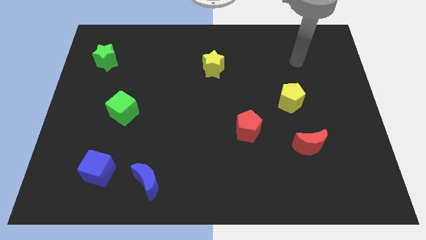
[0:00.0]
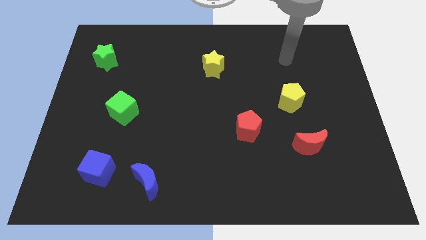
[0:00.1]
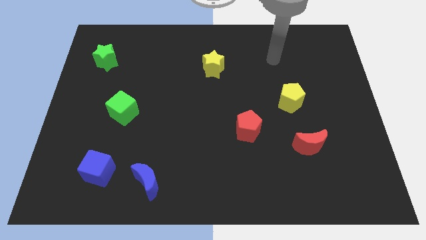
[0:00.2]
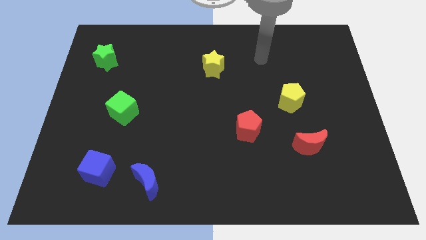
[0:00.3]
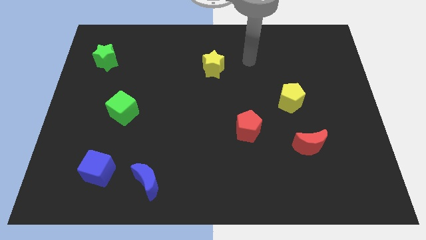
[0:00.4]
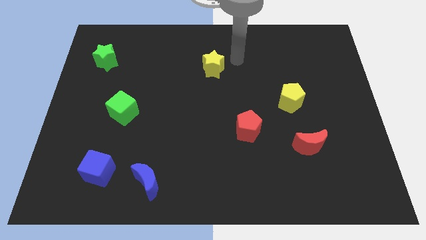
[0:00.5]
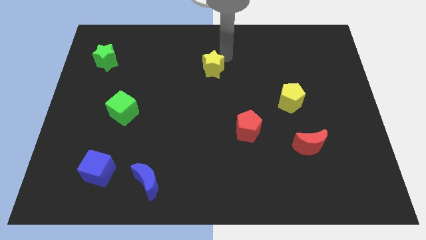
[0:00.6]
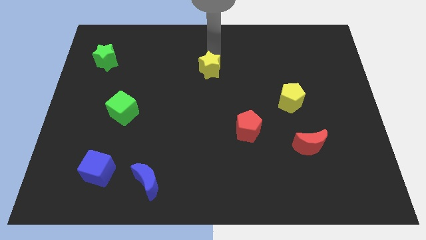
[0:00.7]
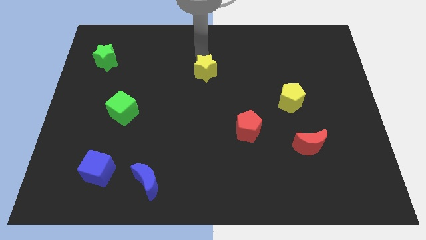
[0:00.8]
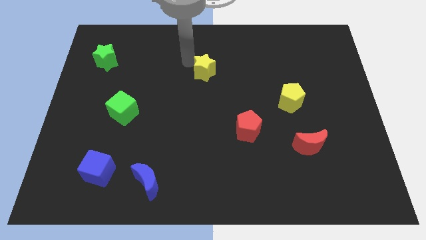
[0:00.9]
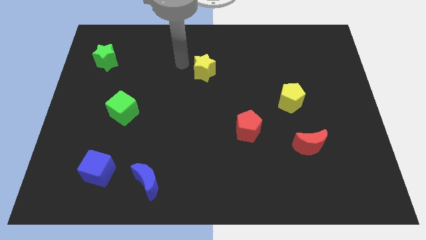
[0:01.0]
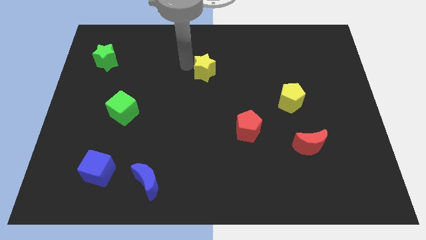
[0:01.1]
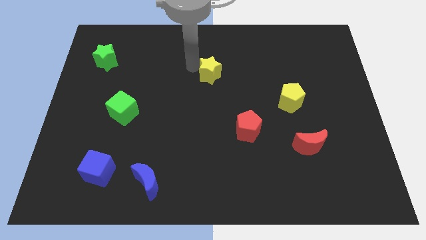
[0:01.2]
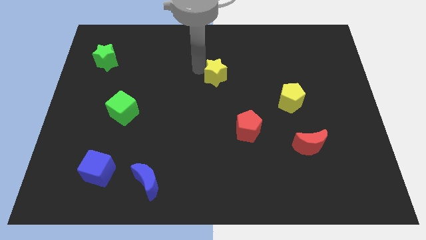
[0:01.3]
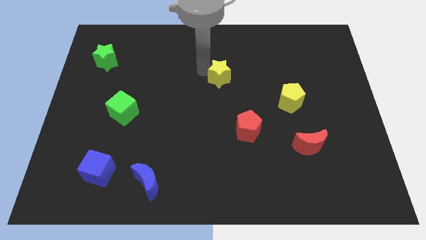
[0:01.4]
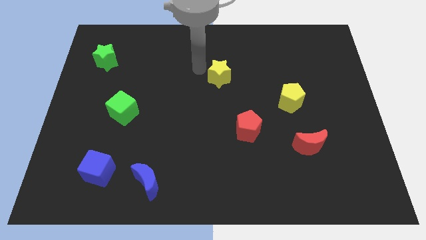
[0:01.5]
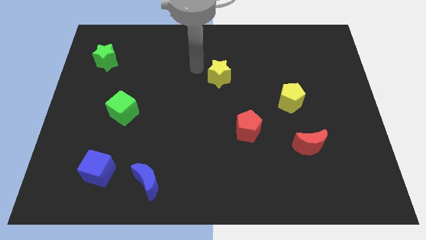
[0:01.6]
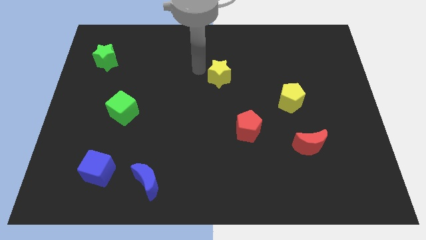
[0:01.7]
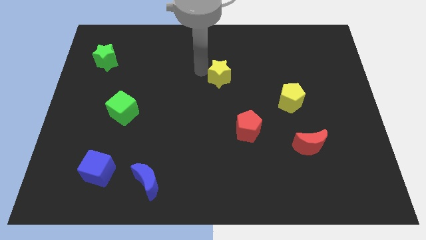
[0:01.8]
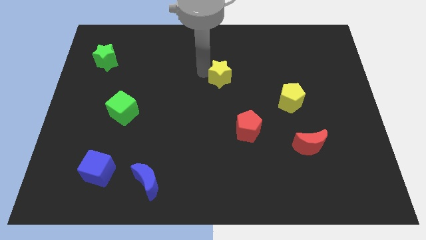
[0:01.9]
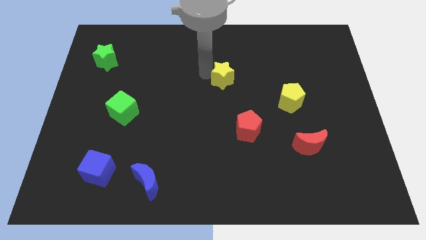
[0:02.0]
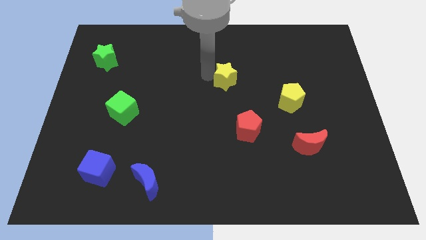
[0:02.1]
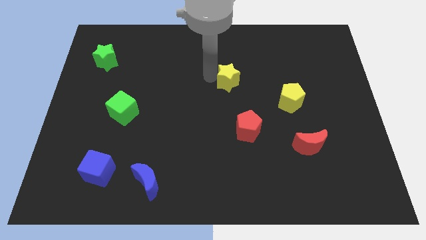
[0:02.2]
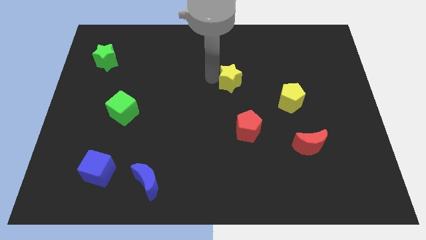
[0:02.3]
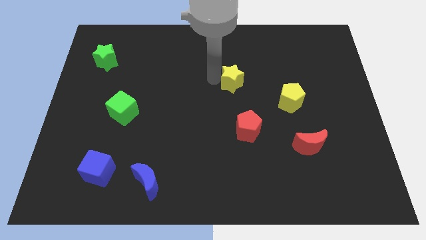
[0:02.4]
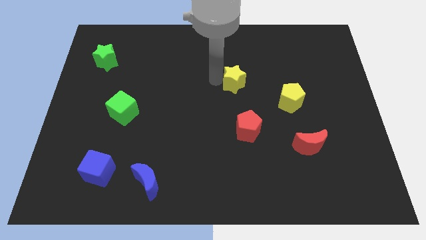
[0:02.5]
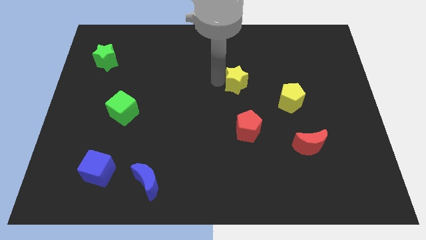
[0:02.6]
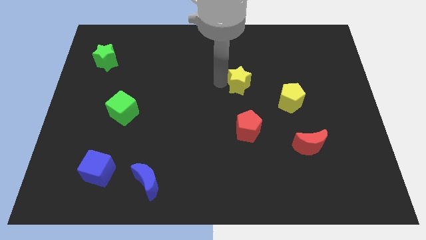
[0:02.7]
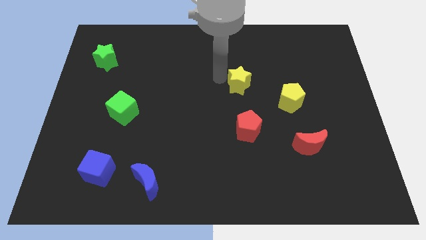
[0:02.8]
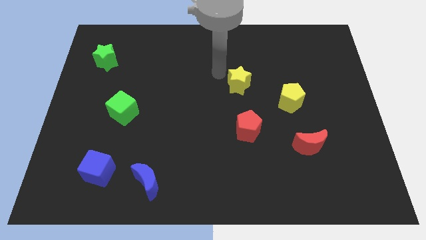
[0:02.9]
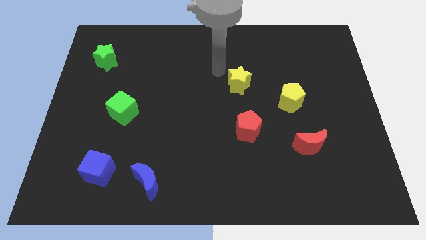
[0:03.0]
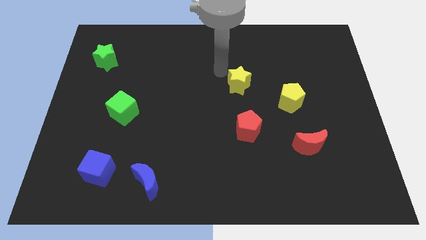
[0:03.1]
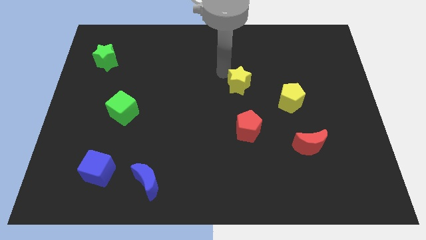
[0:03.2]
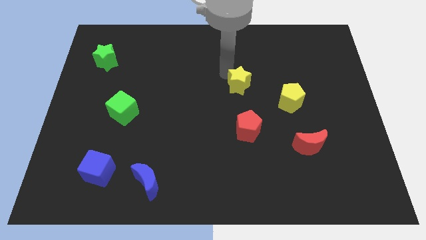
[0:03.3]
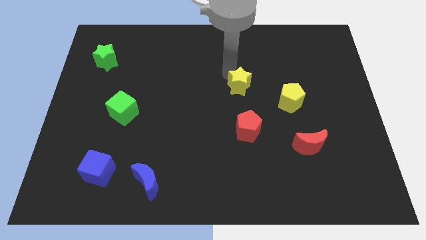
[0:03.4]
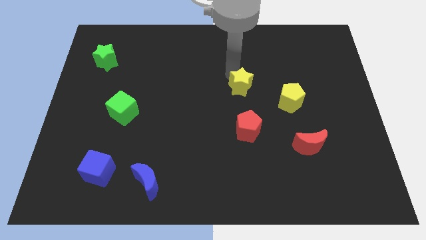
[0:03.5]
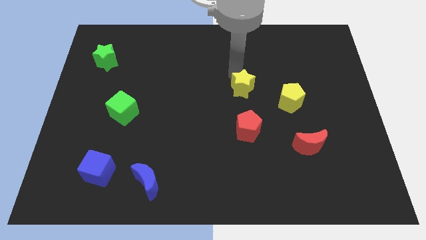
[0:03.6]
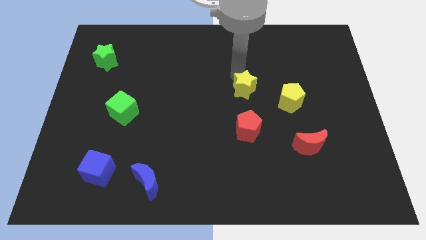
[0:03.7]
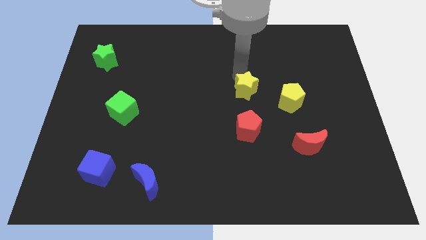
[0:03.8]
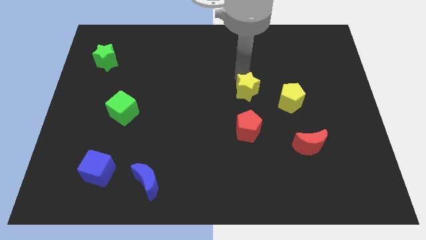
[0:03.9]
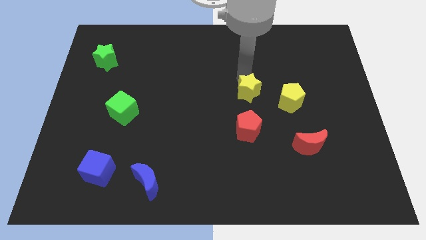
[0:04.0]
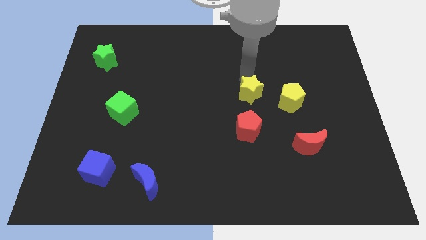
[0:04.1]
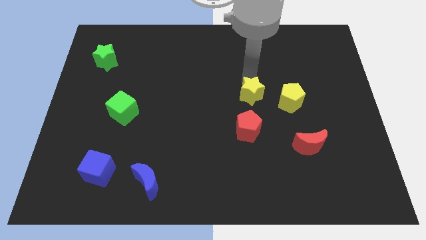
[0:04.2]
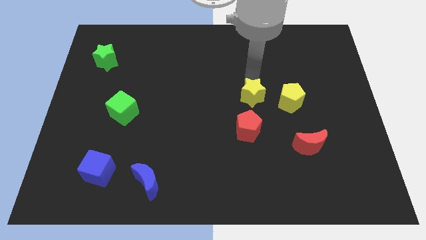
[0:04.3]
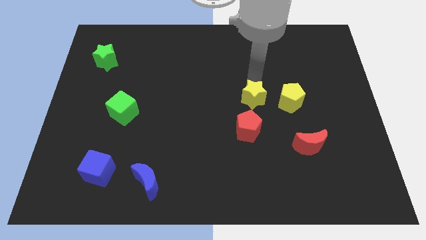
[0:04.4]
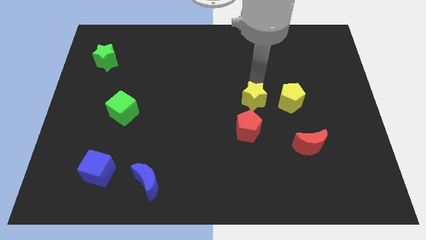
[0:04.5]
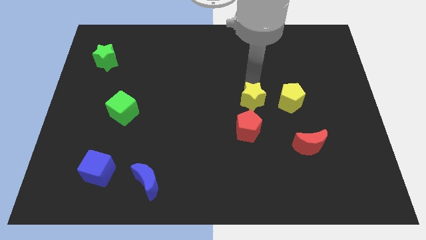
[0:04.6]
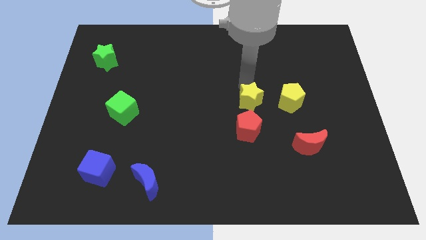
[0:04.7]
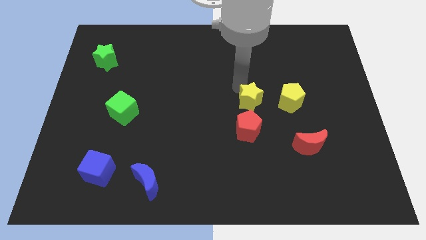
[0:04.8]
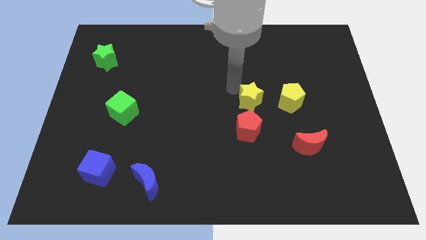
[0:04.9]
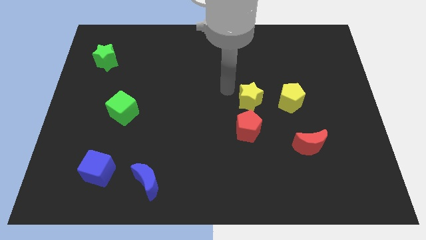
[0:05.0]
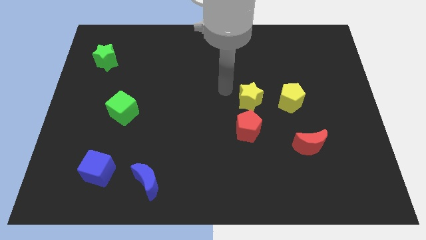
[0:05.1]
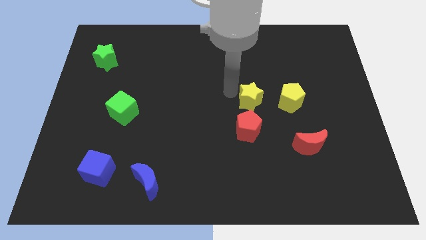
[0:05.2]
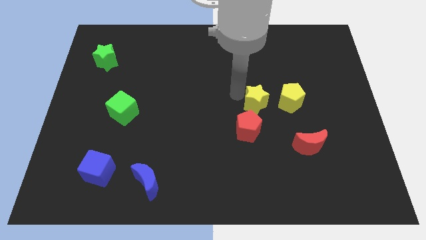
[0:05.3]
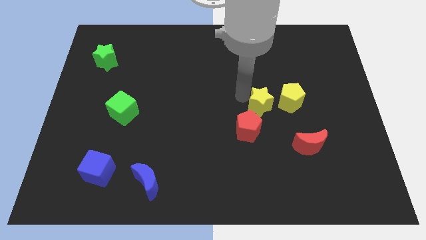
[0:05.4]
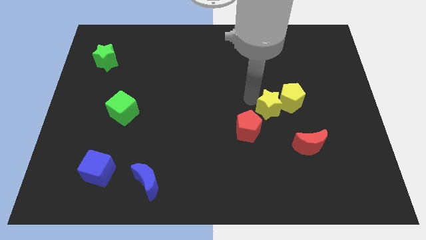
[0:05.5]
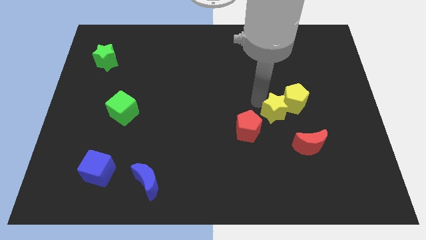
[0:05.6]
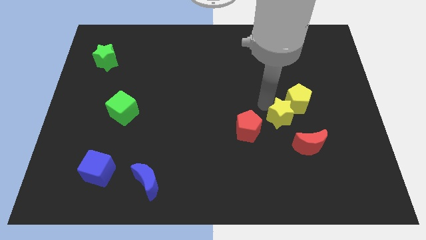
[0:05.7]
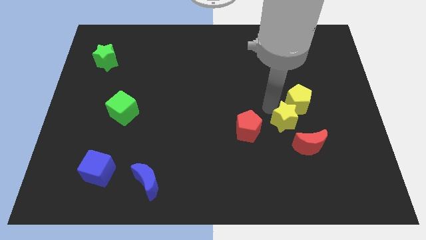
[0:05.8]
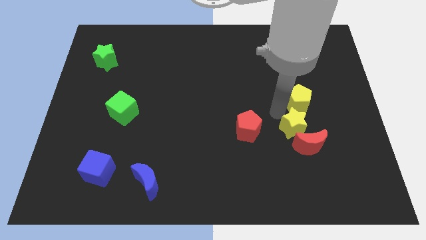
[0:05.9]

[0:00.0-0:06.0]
put the yellow star next to the red moon

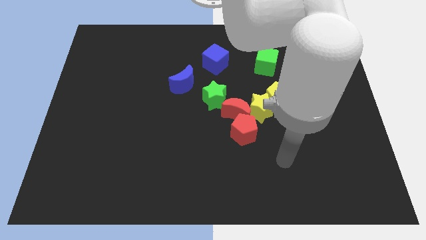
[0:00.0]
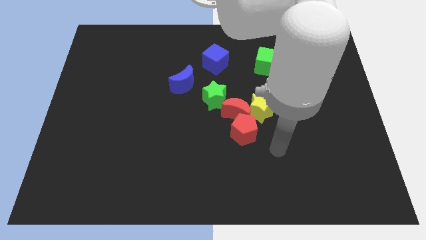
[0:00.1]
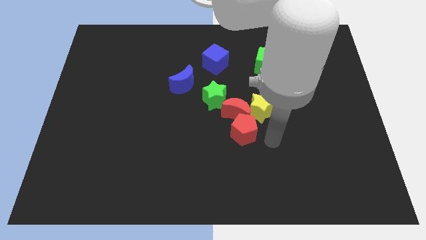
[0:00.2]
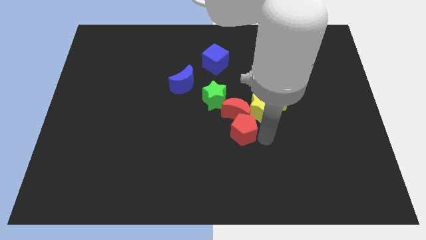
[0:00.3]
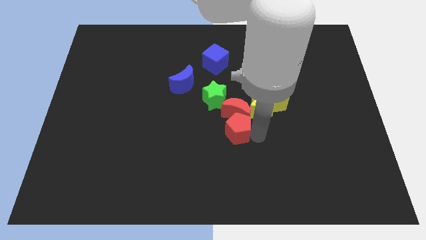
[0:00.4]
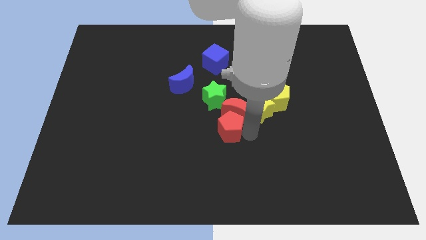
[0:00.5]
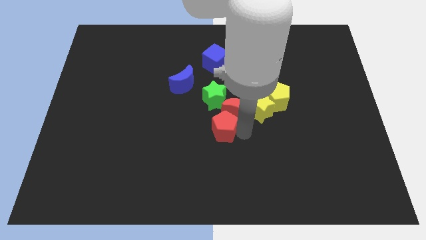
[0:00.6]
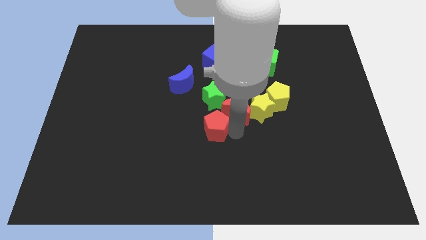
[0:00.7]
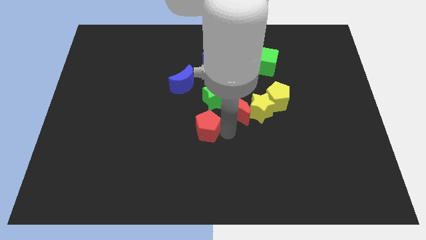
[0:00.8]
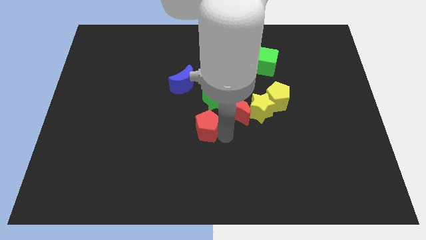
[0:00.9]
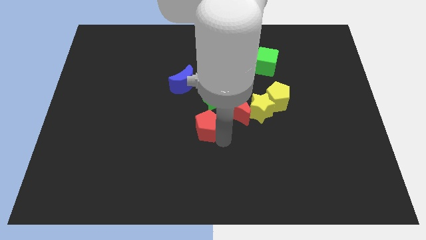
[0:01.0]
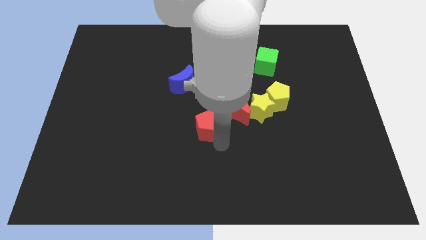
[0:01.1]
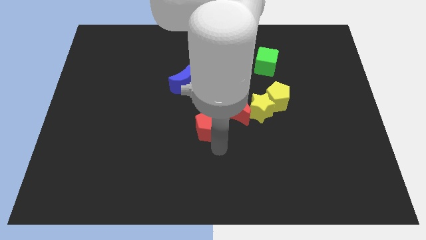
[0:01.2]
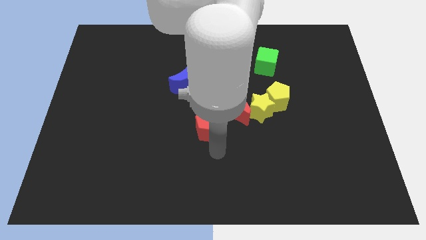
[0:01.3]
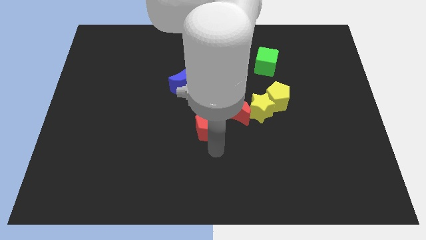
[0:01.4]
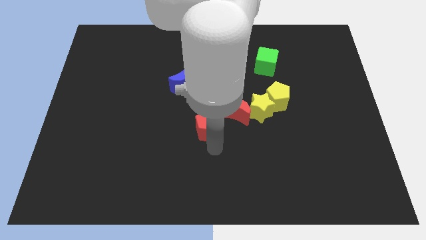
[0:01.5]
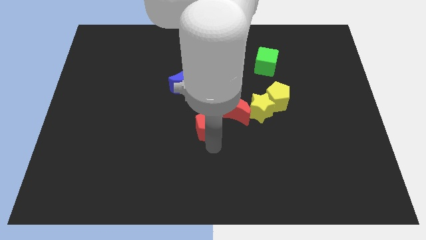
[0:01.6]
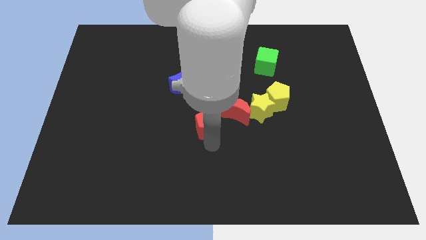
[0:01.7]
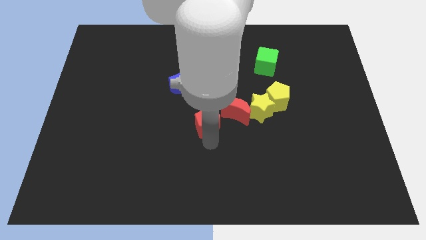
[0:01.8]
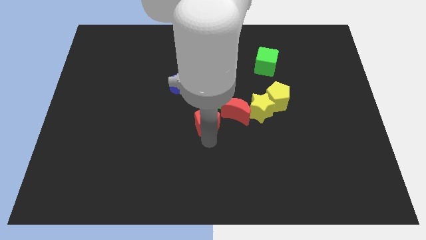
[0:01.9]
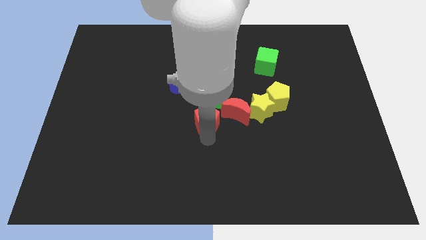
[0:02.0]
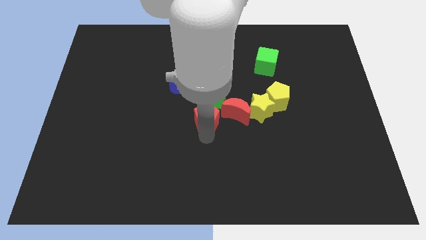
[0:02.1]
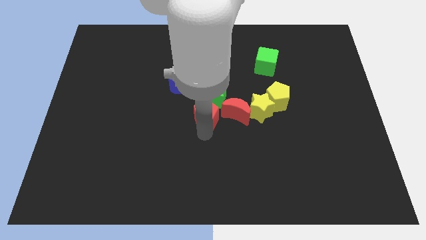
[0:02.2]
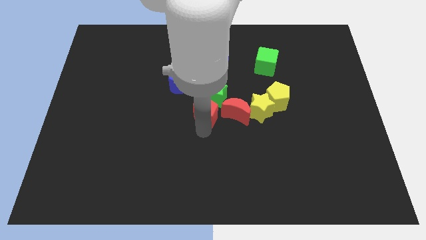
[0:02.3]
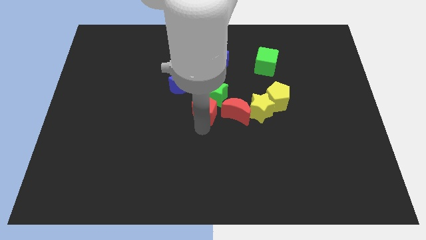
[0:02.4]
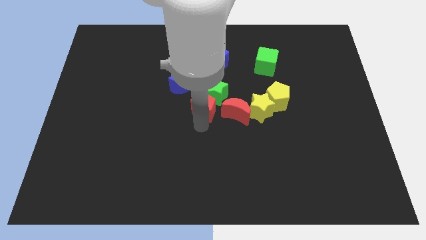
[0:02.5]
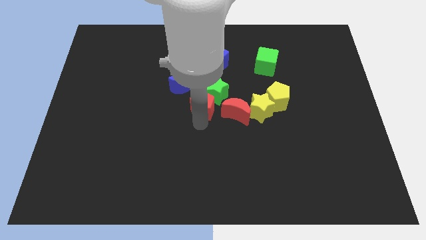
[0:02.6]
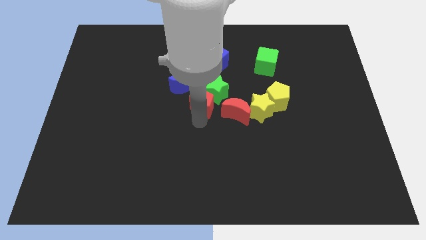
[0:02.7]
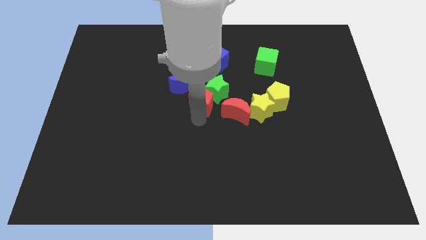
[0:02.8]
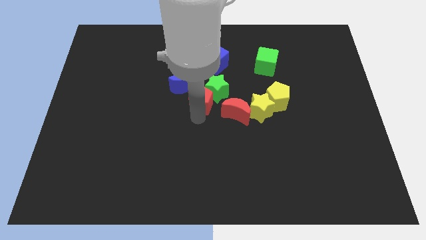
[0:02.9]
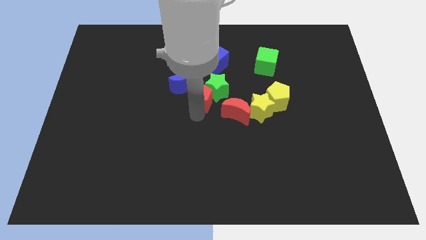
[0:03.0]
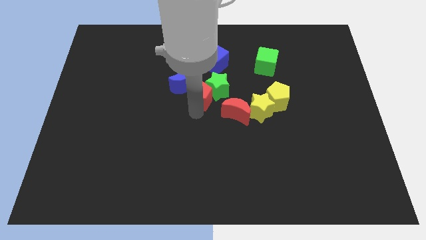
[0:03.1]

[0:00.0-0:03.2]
move the red pentagon to the blue moon
